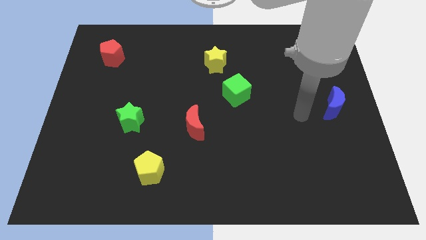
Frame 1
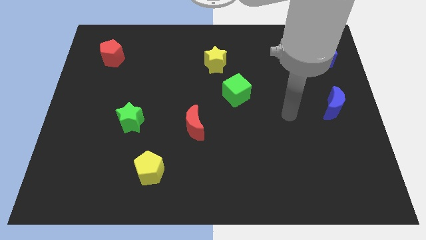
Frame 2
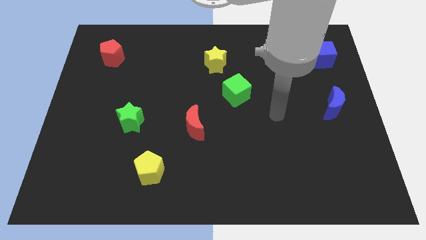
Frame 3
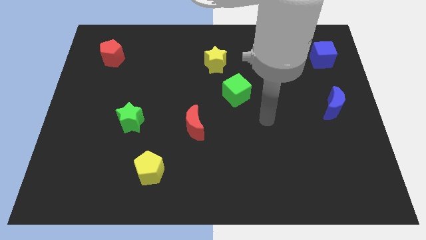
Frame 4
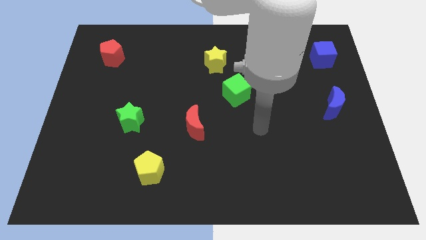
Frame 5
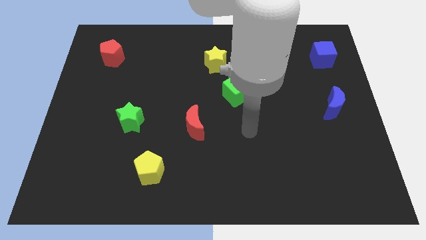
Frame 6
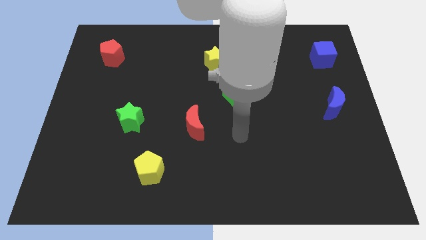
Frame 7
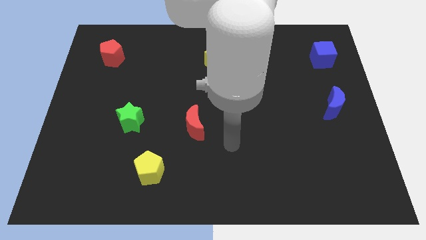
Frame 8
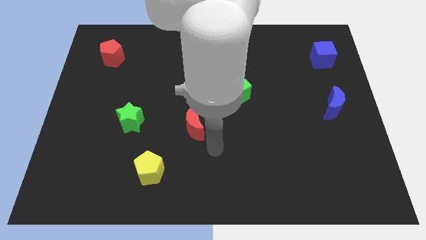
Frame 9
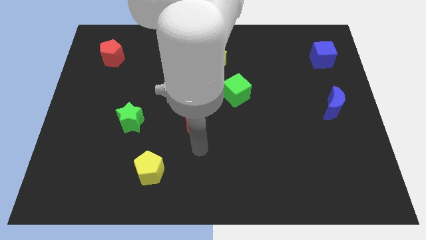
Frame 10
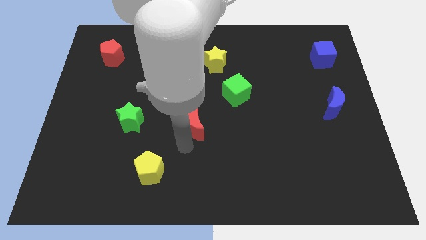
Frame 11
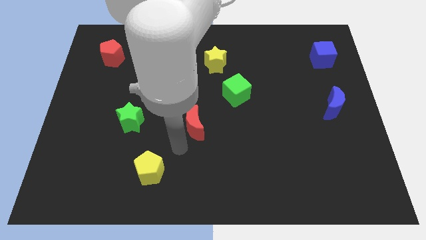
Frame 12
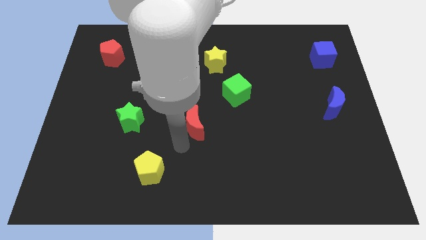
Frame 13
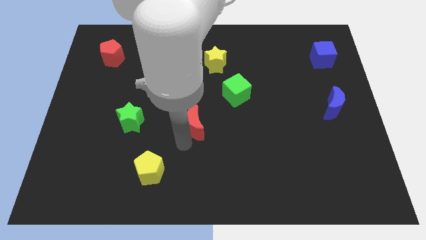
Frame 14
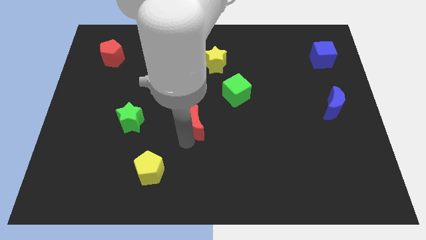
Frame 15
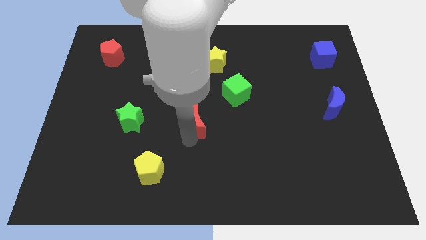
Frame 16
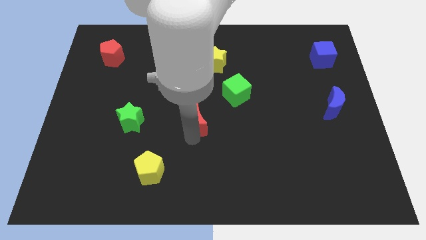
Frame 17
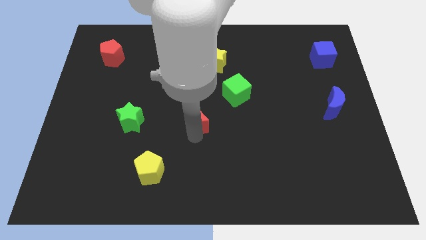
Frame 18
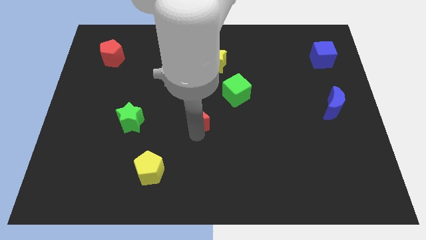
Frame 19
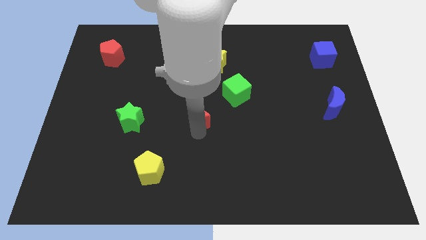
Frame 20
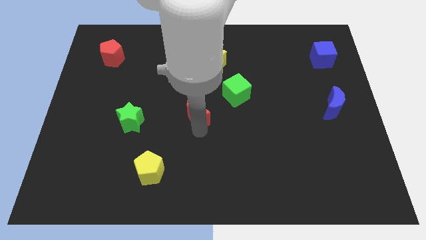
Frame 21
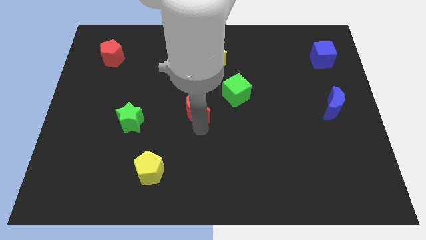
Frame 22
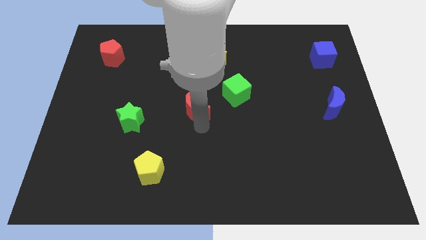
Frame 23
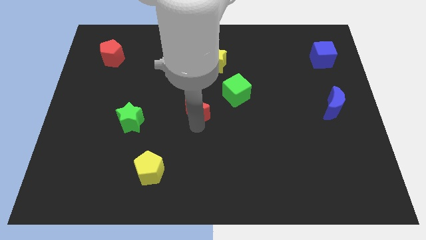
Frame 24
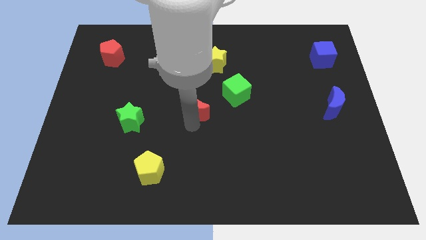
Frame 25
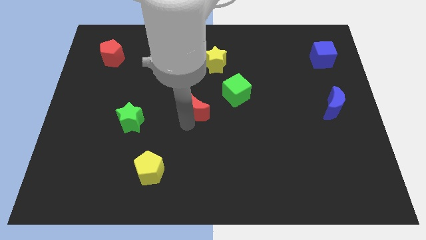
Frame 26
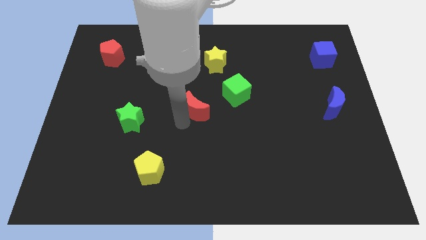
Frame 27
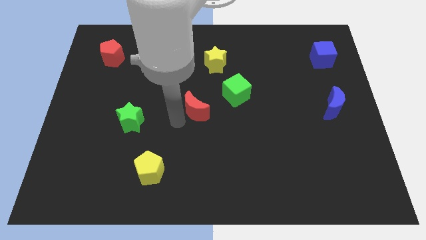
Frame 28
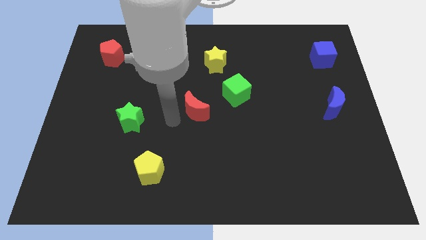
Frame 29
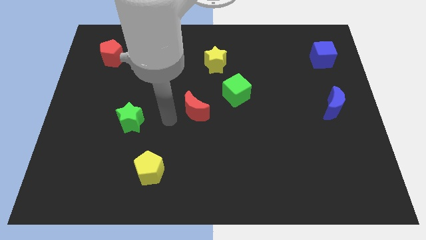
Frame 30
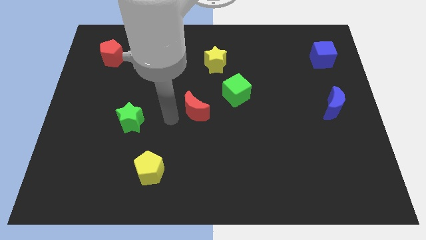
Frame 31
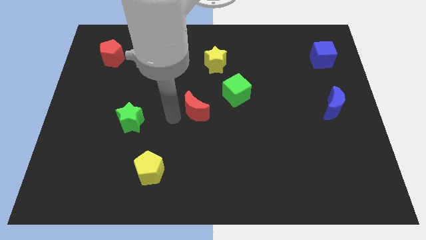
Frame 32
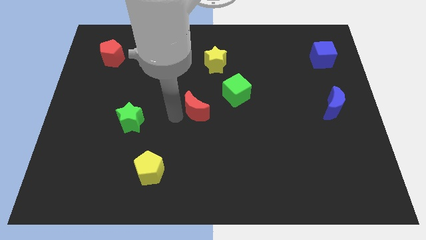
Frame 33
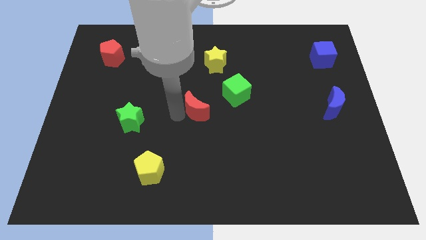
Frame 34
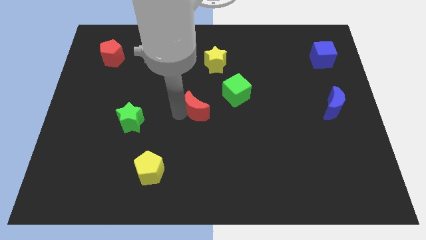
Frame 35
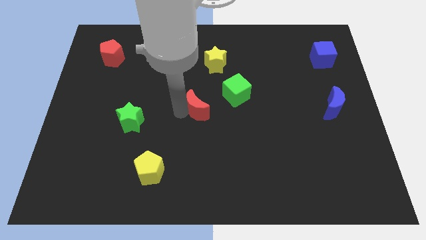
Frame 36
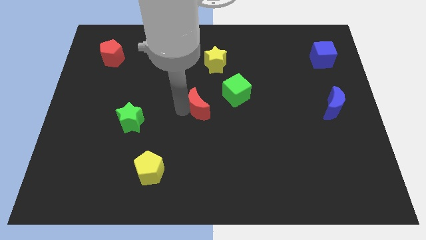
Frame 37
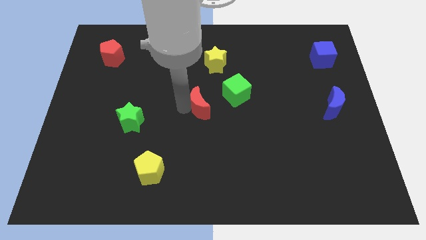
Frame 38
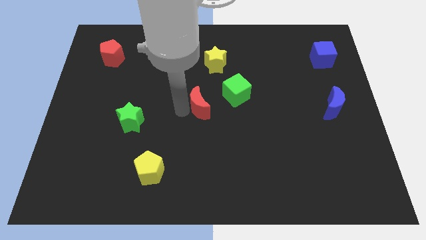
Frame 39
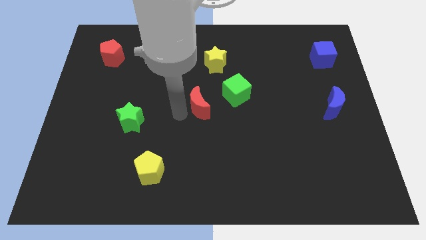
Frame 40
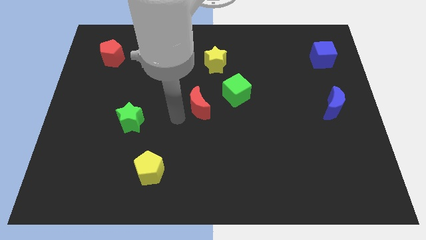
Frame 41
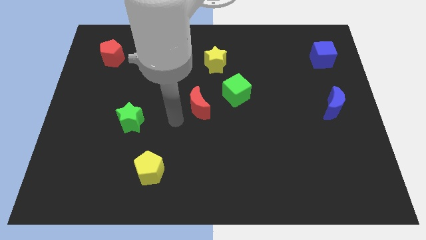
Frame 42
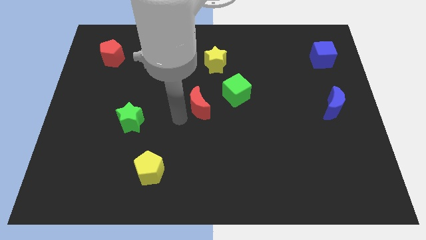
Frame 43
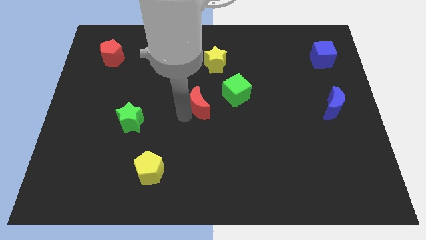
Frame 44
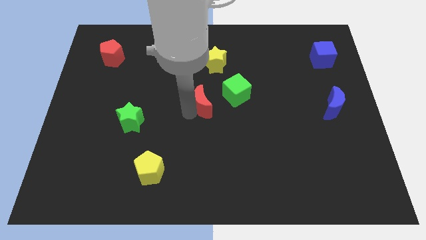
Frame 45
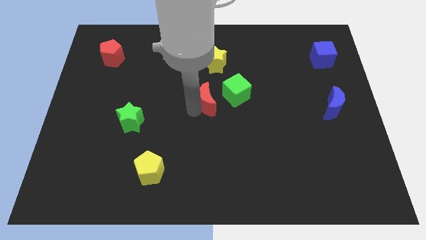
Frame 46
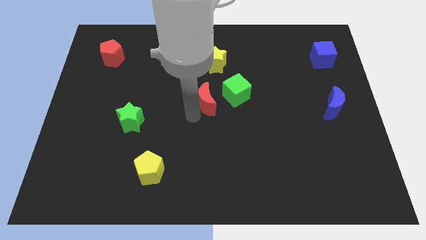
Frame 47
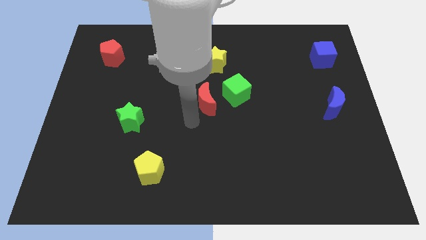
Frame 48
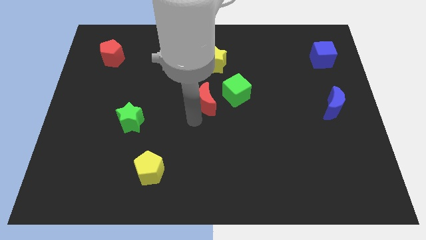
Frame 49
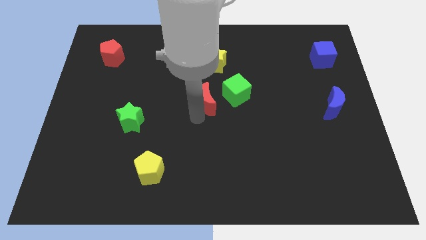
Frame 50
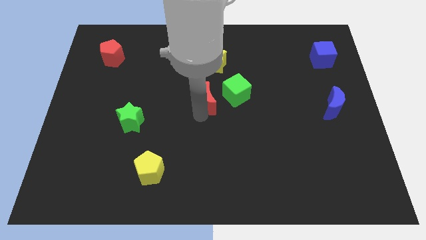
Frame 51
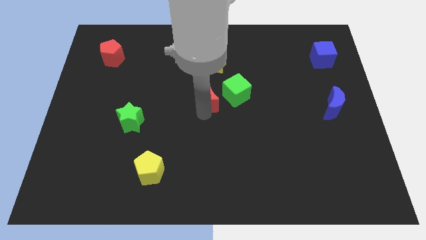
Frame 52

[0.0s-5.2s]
slightly move the red moon up and right

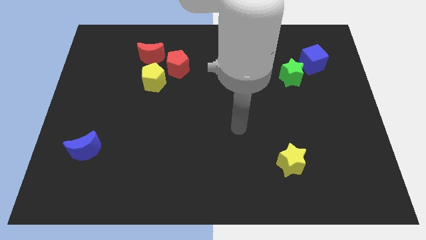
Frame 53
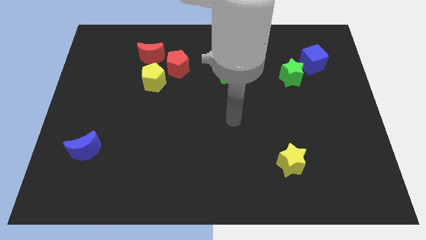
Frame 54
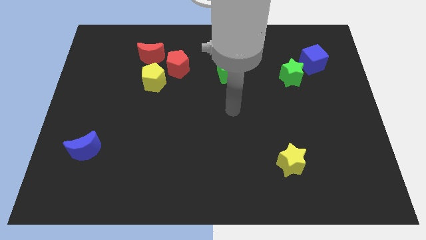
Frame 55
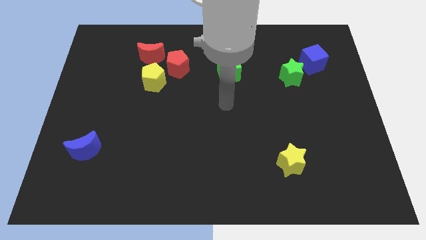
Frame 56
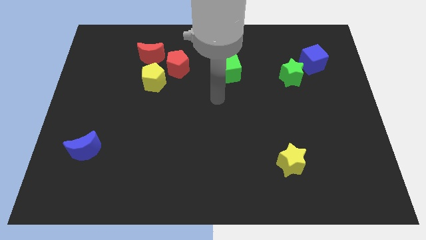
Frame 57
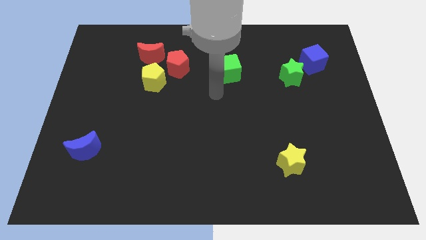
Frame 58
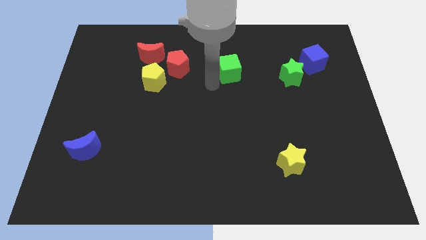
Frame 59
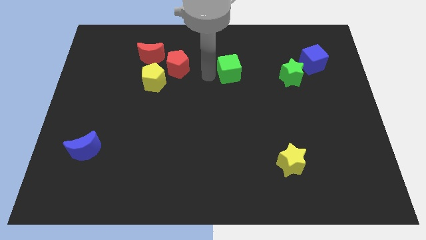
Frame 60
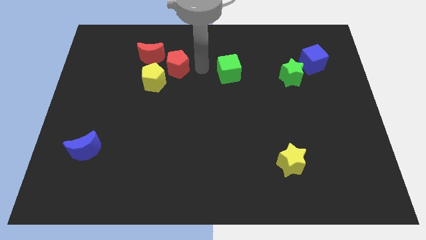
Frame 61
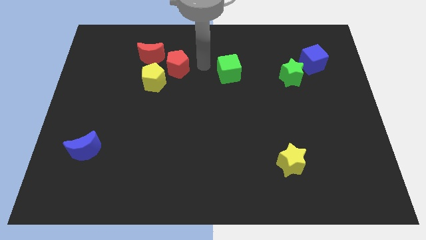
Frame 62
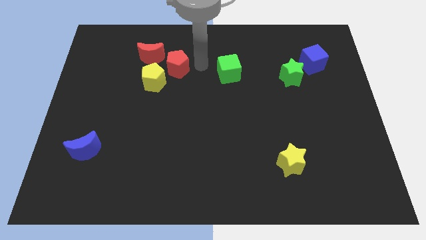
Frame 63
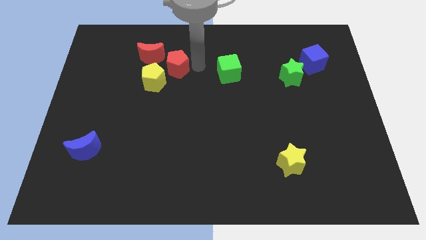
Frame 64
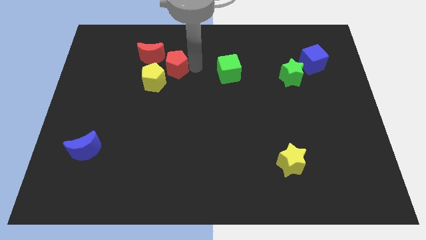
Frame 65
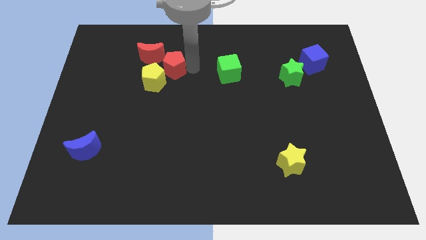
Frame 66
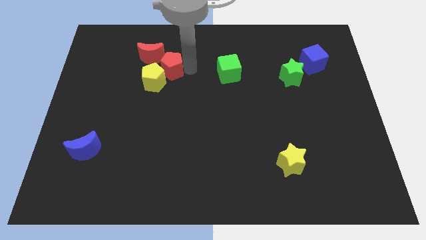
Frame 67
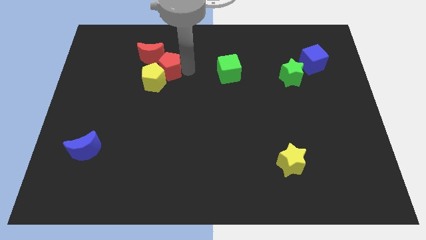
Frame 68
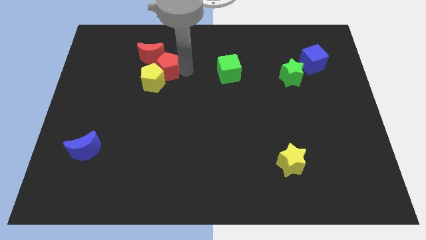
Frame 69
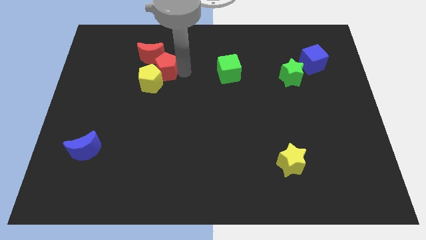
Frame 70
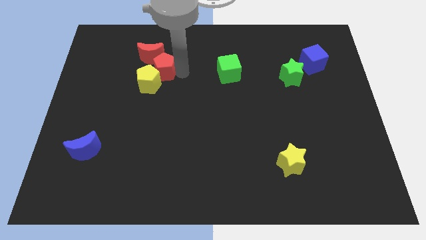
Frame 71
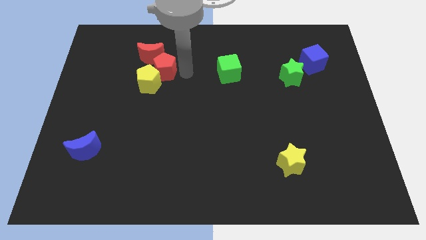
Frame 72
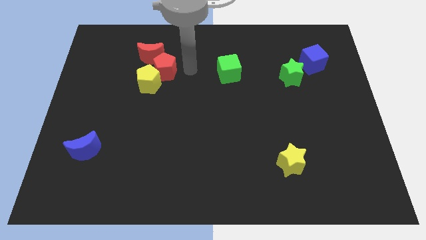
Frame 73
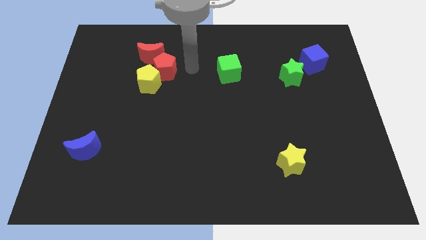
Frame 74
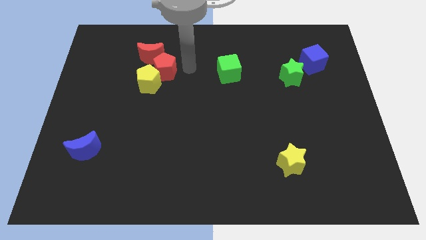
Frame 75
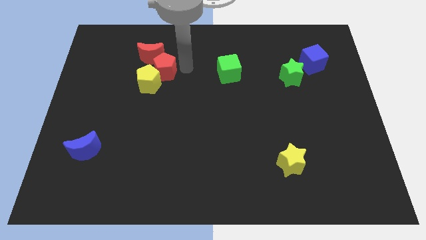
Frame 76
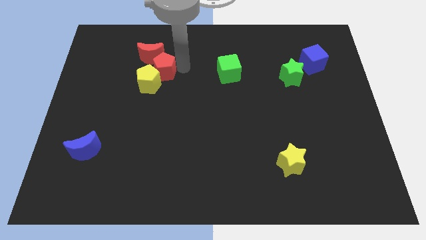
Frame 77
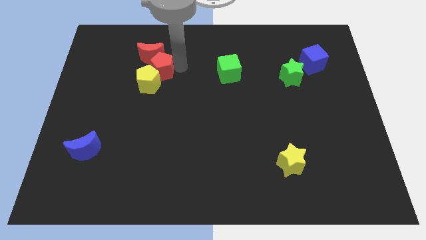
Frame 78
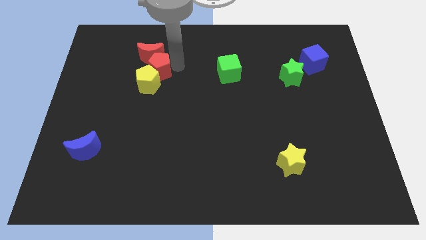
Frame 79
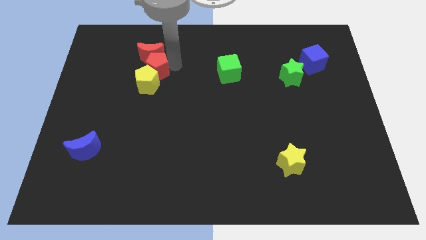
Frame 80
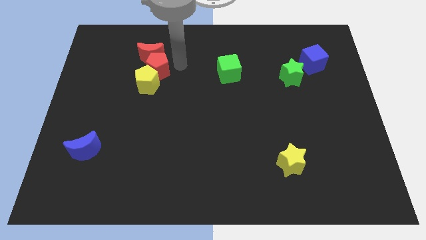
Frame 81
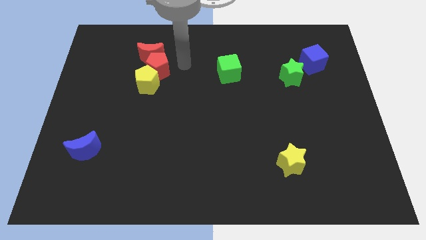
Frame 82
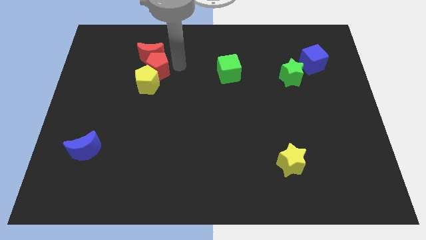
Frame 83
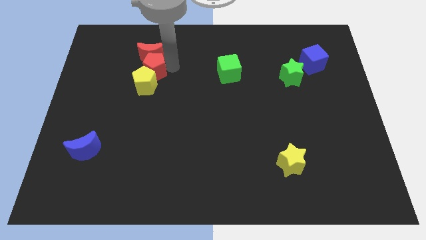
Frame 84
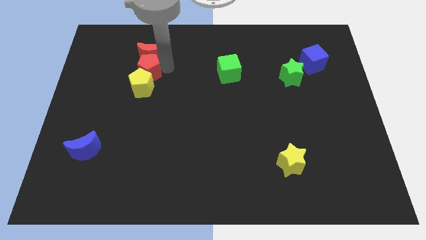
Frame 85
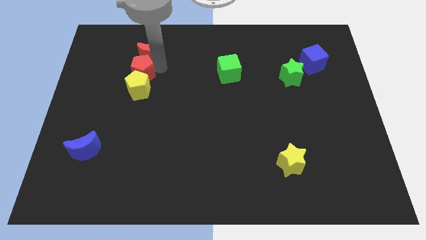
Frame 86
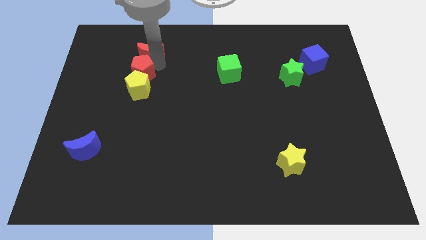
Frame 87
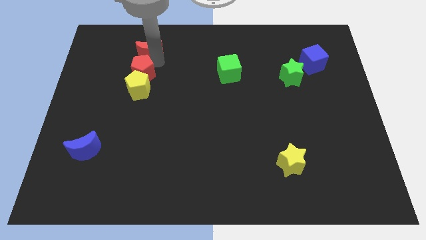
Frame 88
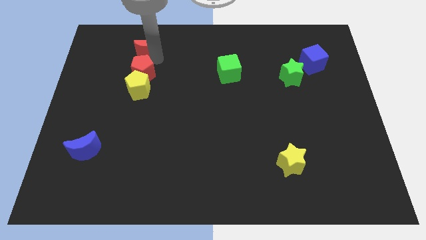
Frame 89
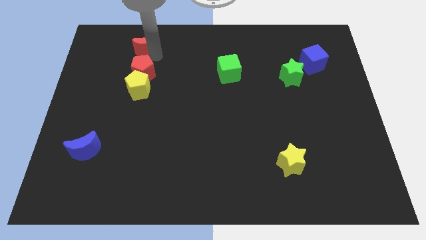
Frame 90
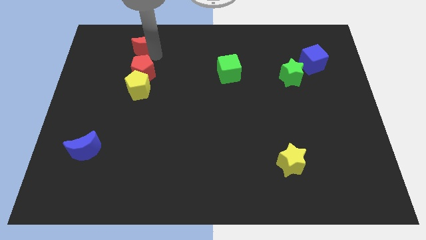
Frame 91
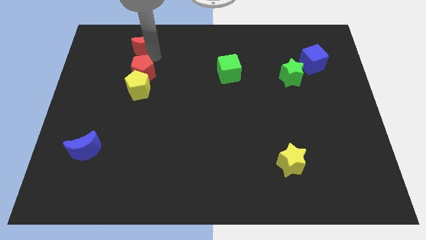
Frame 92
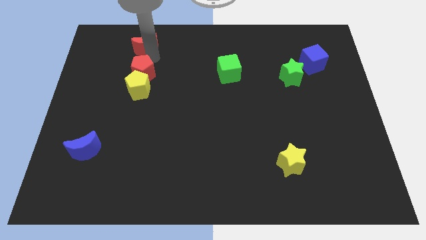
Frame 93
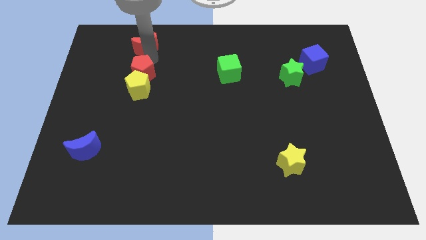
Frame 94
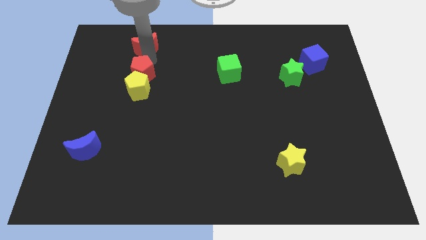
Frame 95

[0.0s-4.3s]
push the red pentagon diagonally downwards and left somewhat
